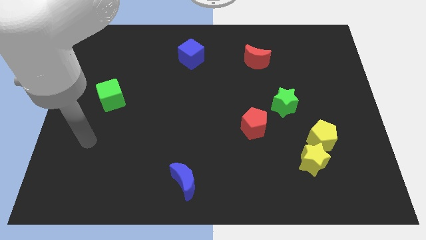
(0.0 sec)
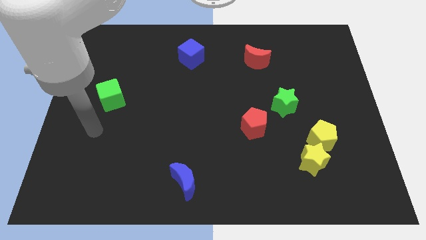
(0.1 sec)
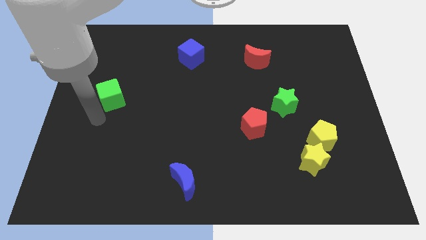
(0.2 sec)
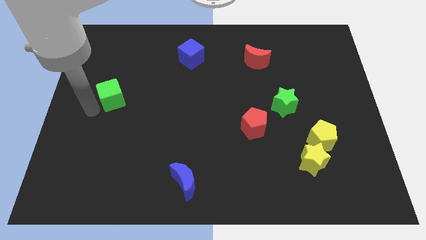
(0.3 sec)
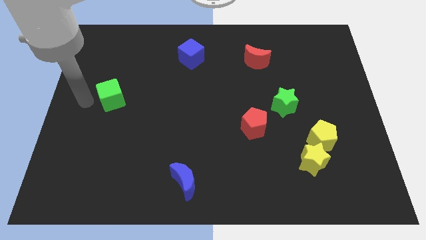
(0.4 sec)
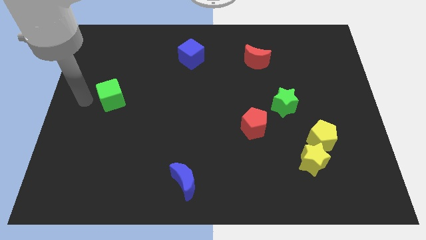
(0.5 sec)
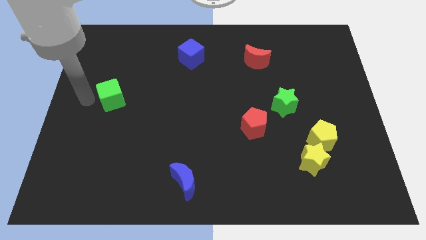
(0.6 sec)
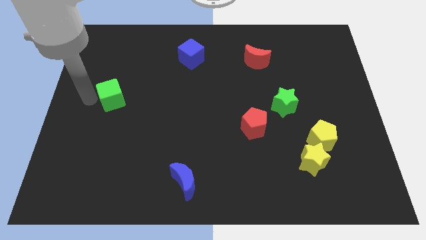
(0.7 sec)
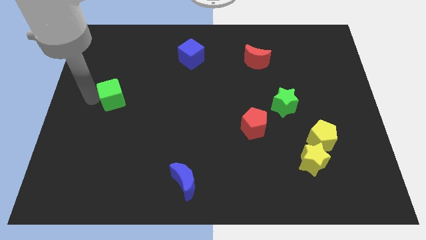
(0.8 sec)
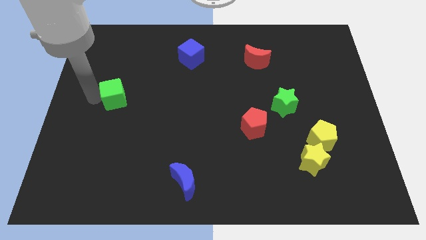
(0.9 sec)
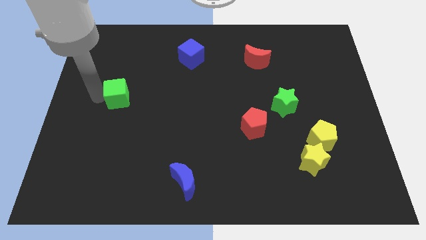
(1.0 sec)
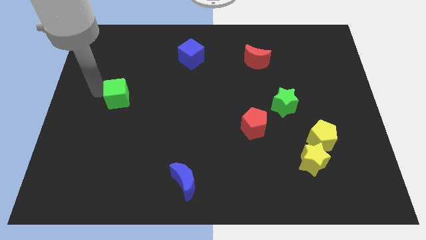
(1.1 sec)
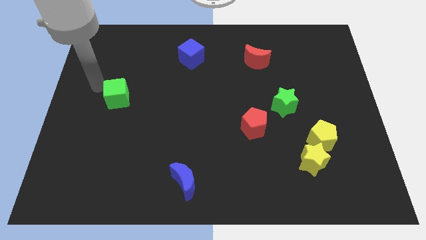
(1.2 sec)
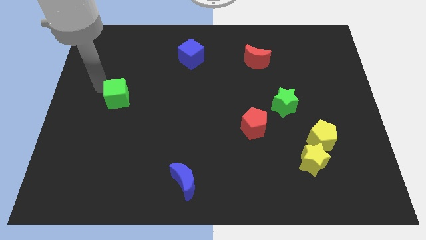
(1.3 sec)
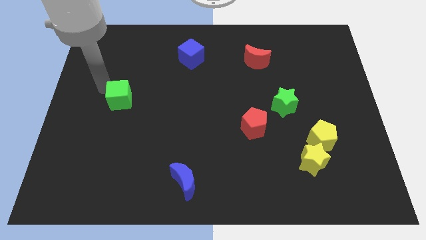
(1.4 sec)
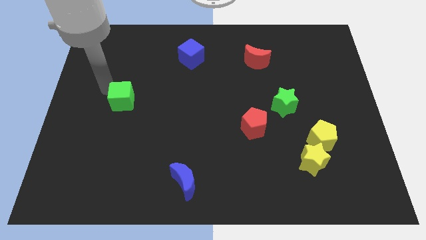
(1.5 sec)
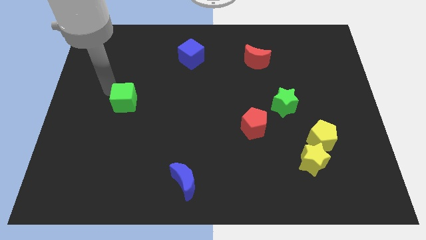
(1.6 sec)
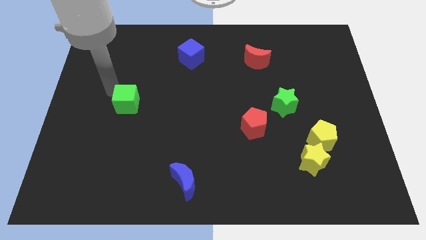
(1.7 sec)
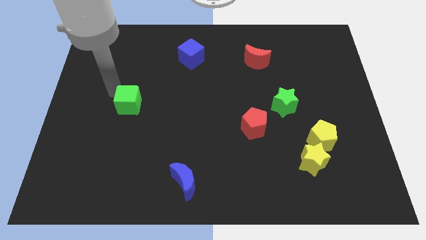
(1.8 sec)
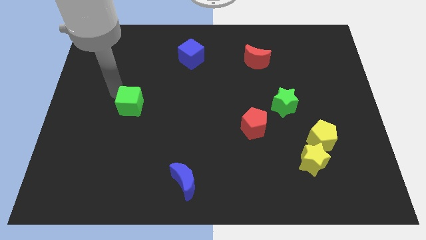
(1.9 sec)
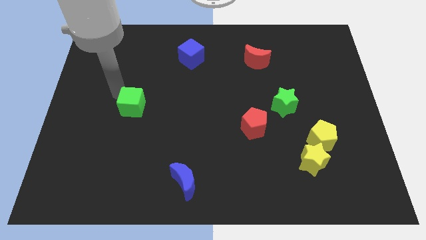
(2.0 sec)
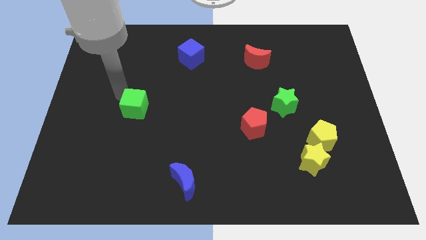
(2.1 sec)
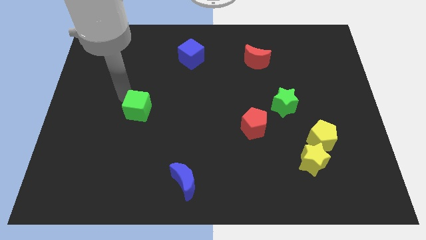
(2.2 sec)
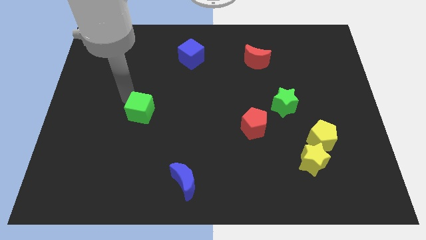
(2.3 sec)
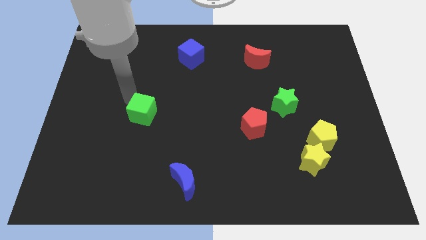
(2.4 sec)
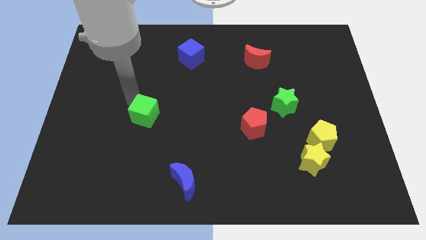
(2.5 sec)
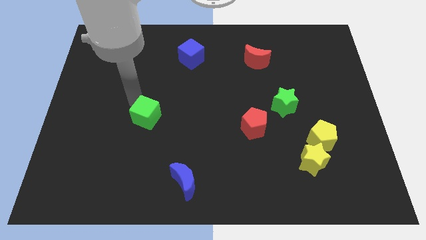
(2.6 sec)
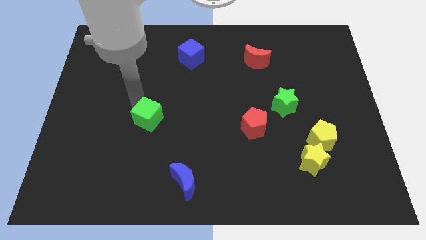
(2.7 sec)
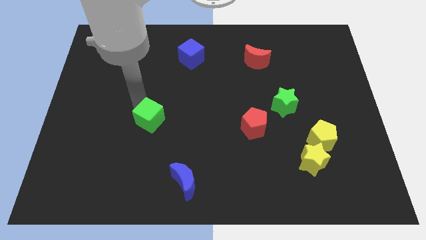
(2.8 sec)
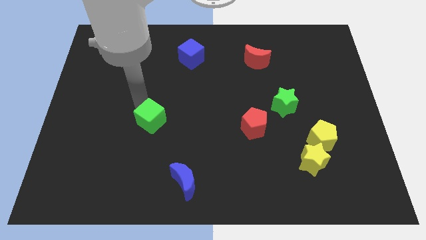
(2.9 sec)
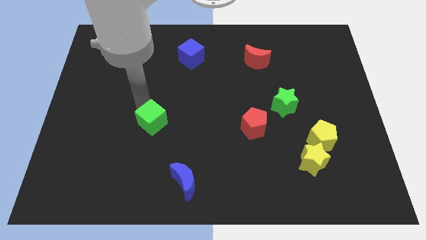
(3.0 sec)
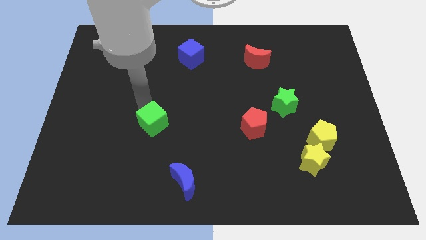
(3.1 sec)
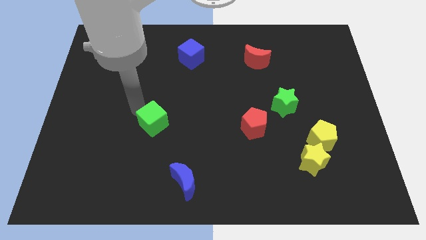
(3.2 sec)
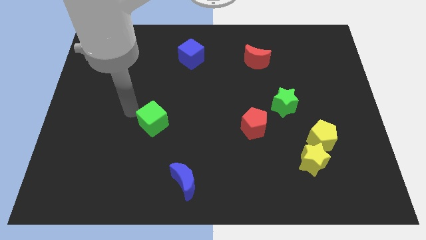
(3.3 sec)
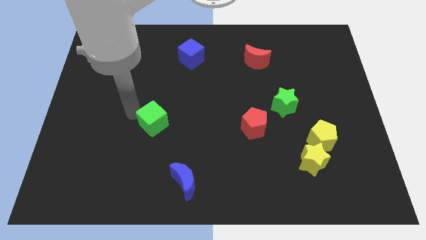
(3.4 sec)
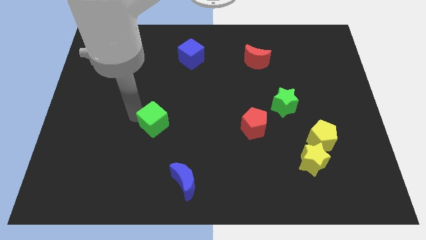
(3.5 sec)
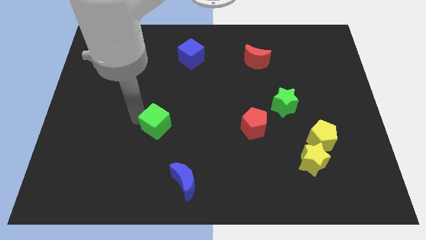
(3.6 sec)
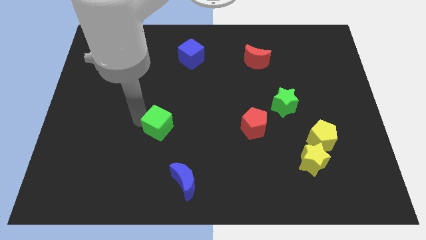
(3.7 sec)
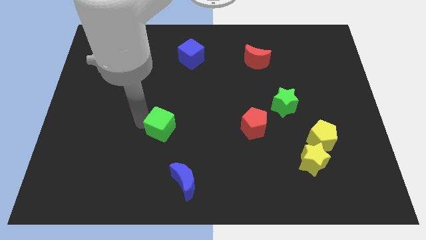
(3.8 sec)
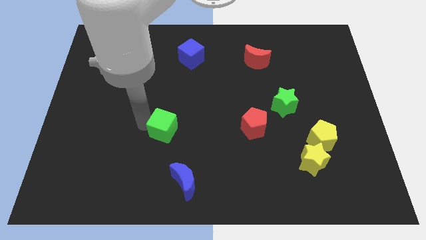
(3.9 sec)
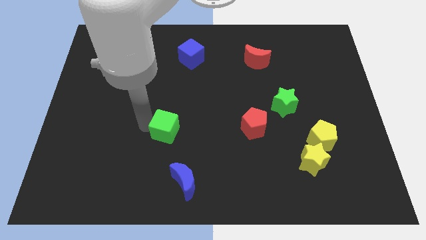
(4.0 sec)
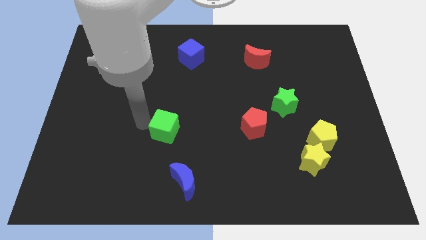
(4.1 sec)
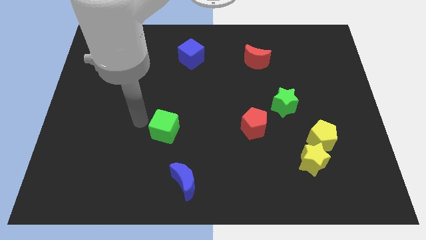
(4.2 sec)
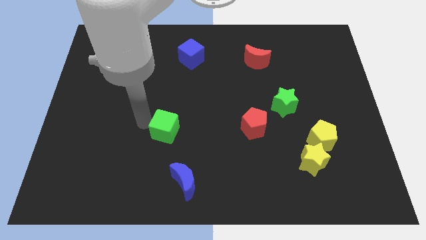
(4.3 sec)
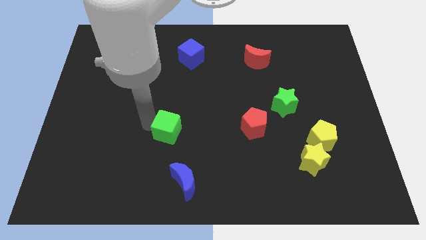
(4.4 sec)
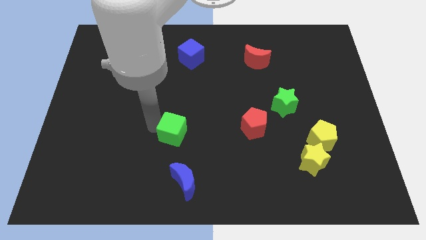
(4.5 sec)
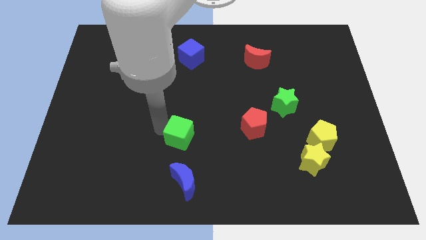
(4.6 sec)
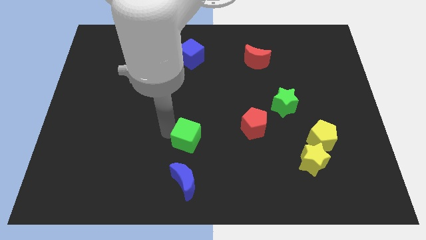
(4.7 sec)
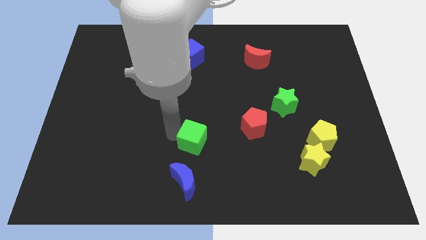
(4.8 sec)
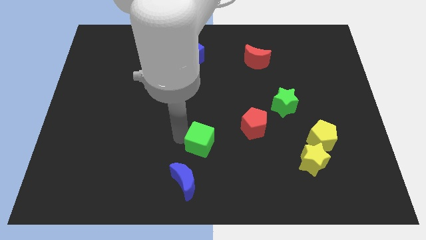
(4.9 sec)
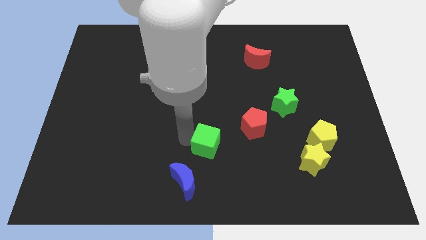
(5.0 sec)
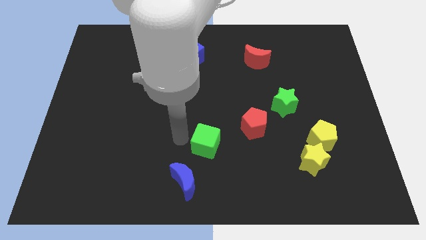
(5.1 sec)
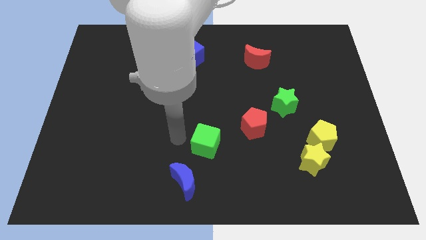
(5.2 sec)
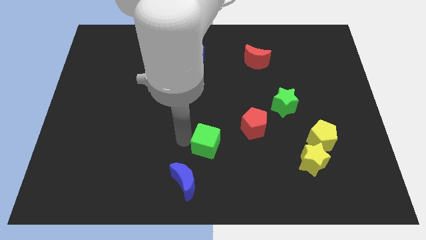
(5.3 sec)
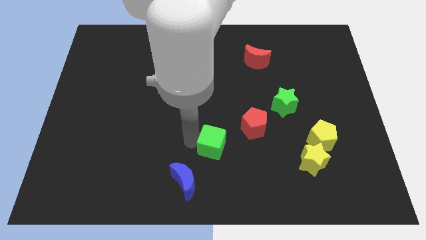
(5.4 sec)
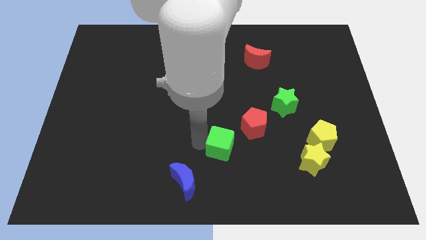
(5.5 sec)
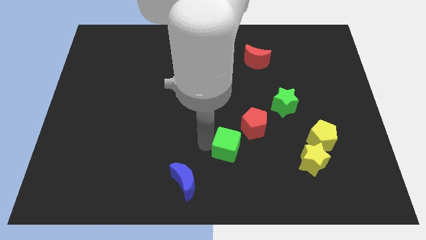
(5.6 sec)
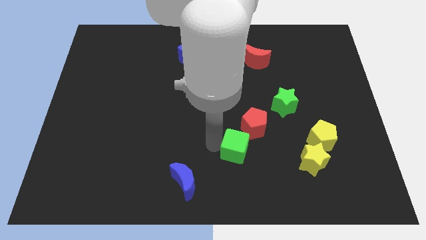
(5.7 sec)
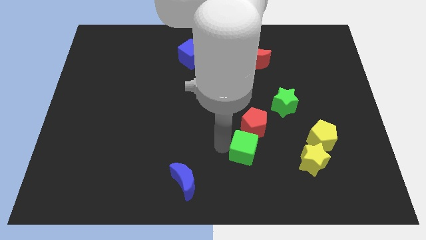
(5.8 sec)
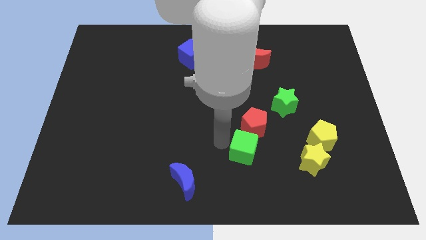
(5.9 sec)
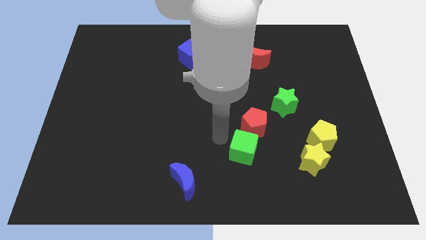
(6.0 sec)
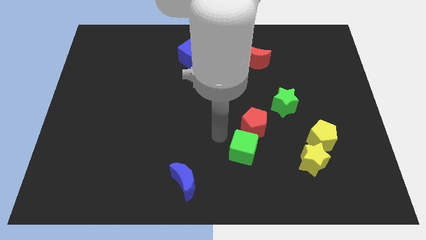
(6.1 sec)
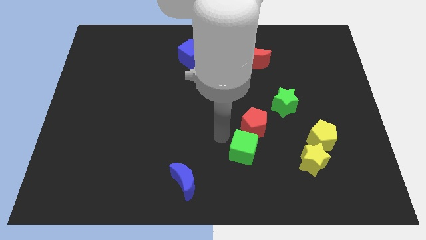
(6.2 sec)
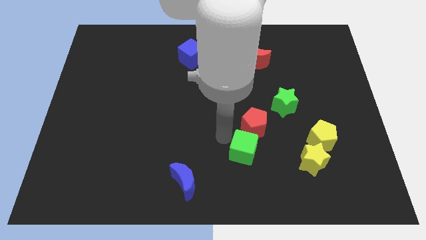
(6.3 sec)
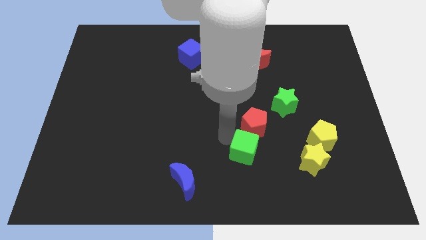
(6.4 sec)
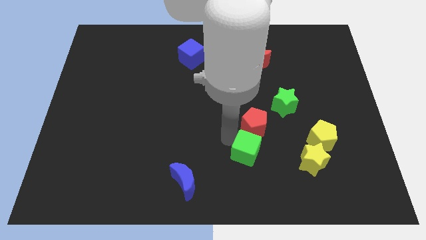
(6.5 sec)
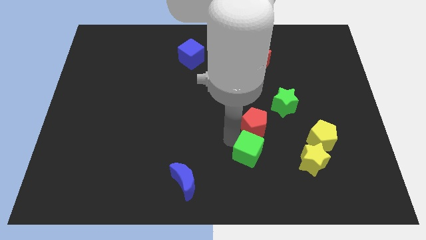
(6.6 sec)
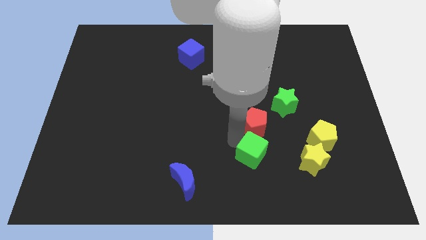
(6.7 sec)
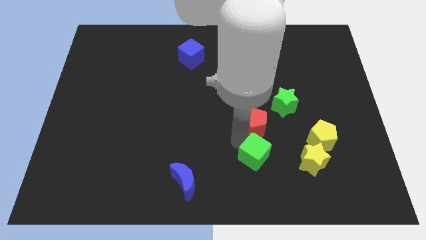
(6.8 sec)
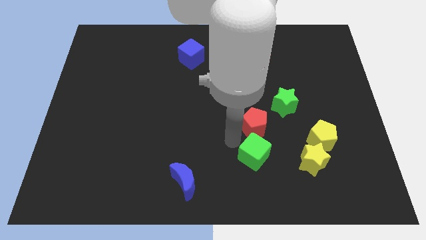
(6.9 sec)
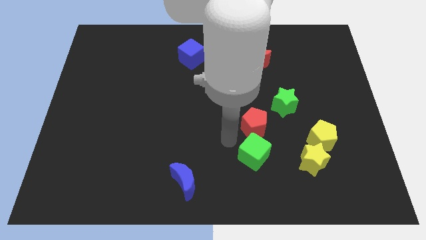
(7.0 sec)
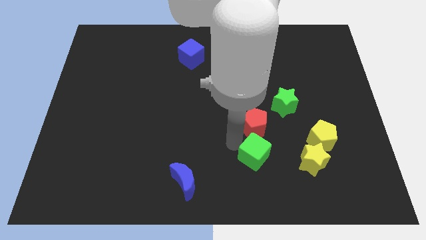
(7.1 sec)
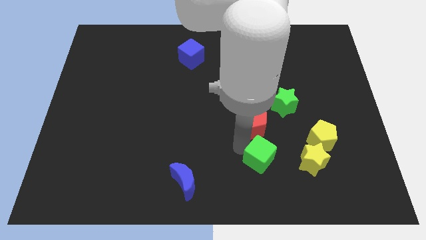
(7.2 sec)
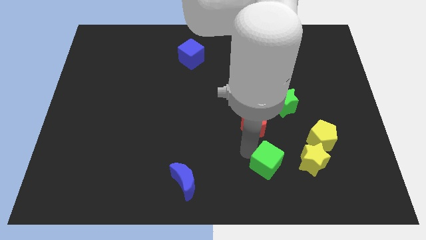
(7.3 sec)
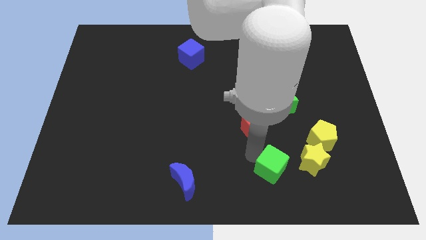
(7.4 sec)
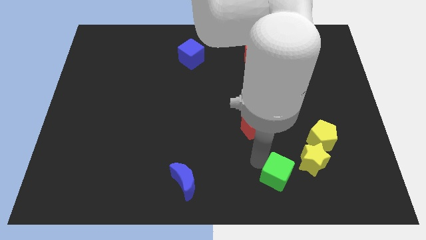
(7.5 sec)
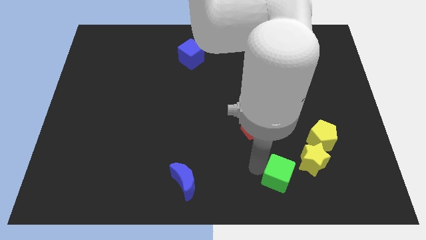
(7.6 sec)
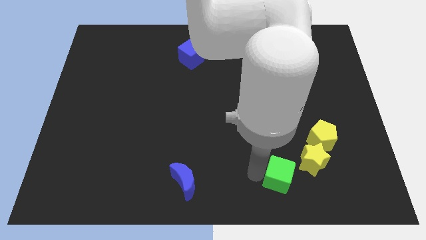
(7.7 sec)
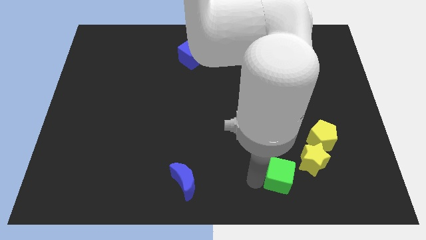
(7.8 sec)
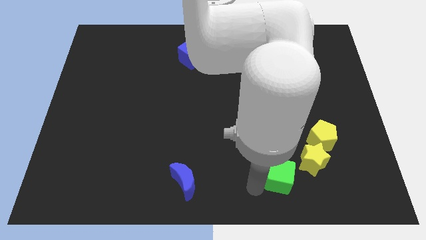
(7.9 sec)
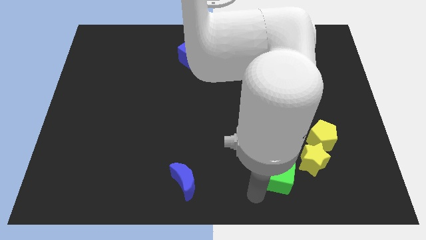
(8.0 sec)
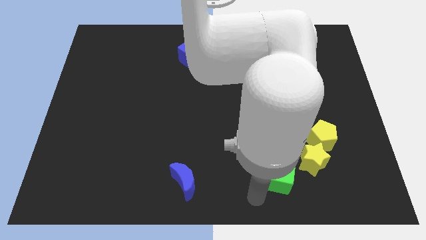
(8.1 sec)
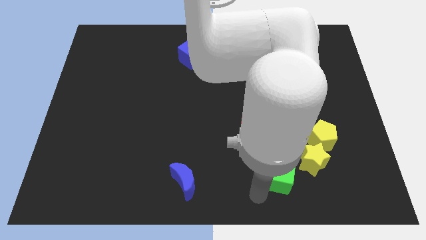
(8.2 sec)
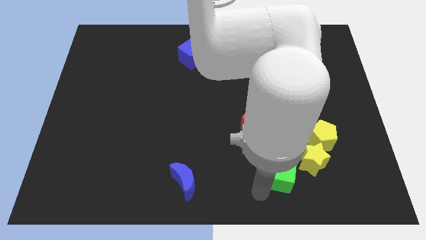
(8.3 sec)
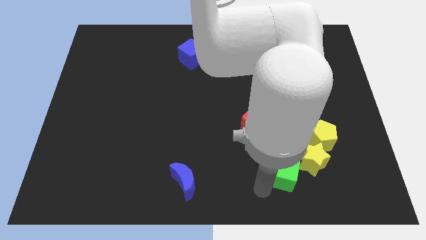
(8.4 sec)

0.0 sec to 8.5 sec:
put the green cube to the bottom left side of the yellow pentagon
